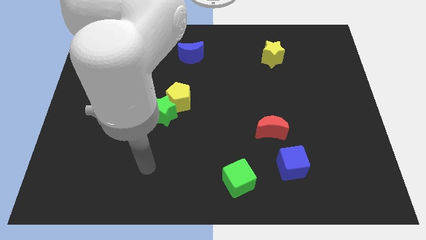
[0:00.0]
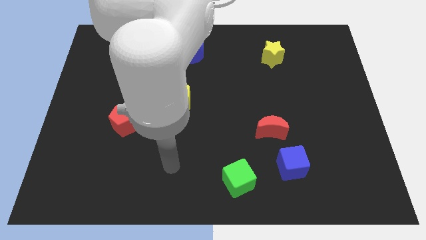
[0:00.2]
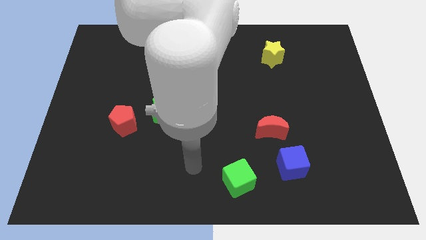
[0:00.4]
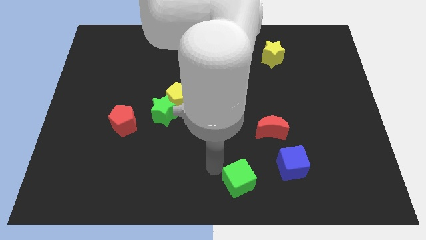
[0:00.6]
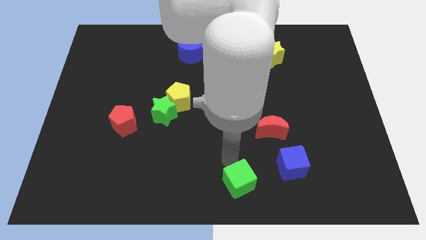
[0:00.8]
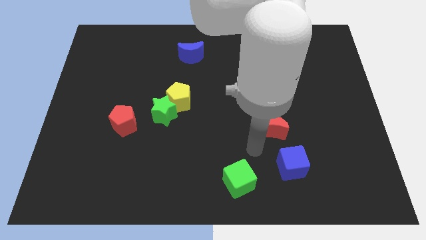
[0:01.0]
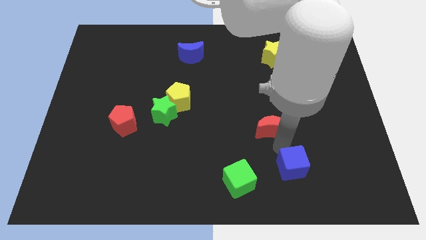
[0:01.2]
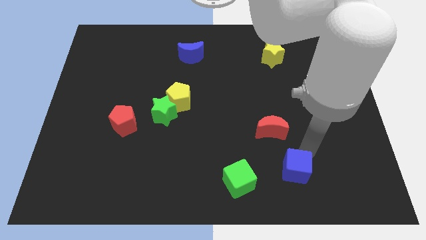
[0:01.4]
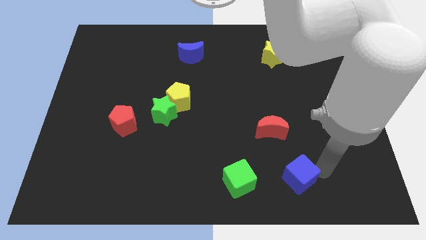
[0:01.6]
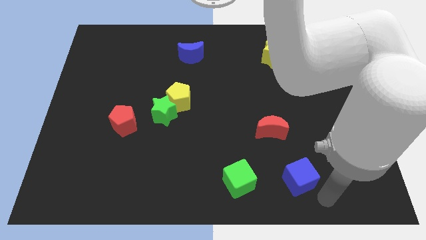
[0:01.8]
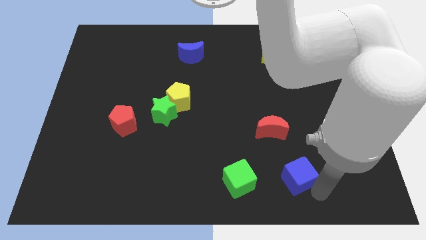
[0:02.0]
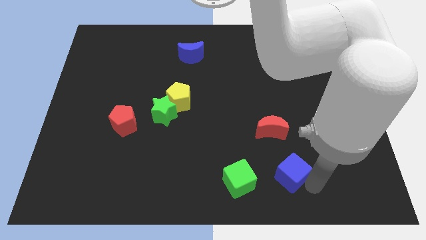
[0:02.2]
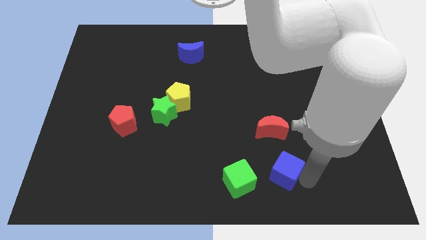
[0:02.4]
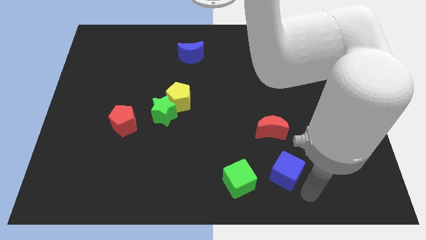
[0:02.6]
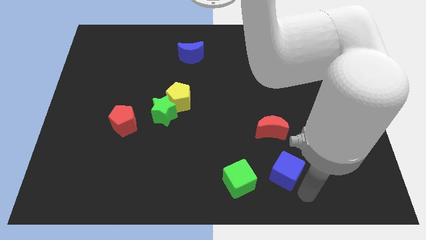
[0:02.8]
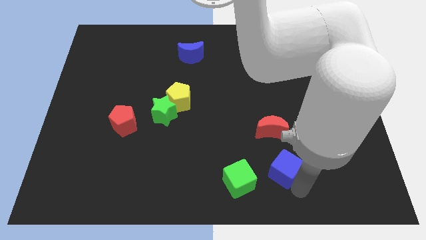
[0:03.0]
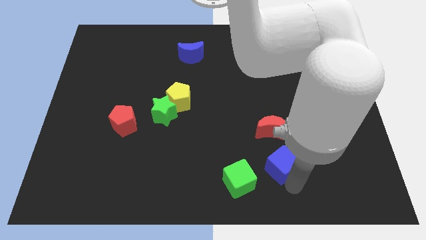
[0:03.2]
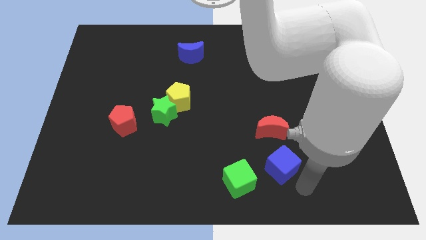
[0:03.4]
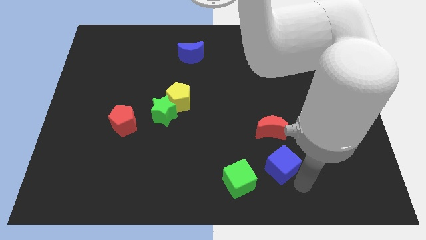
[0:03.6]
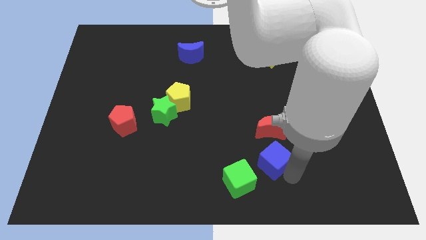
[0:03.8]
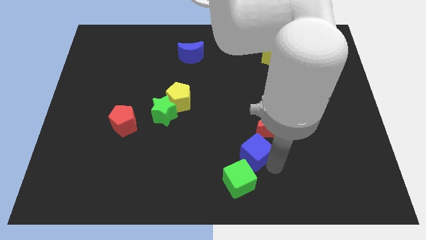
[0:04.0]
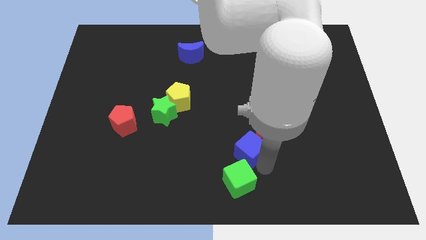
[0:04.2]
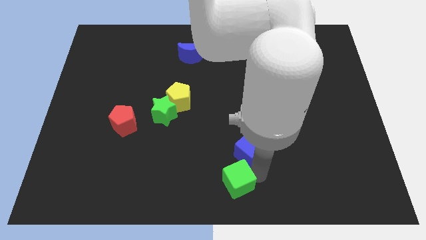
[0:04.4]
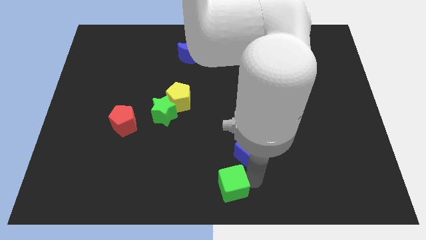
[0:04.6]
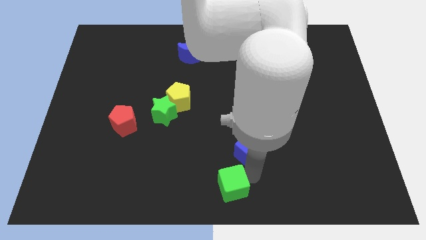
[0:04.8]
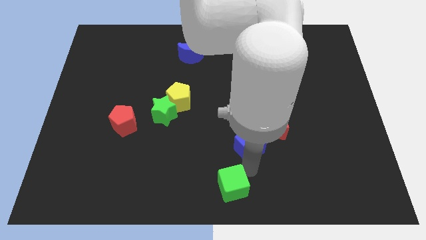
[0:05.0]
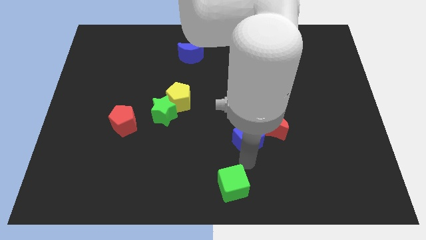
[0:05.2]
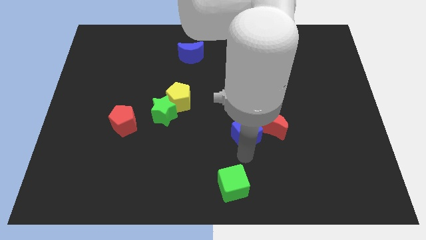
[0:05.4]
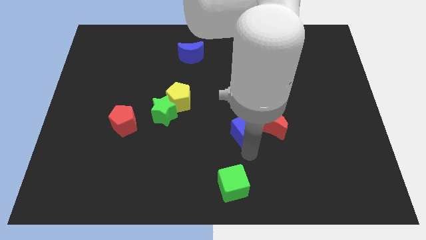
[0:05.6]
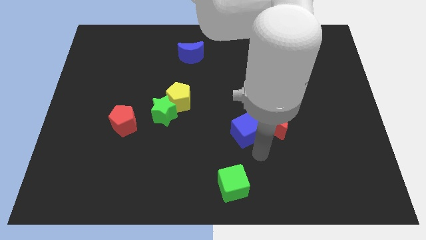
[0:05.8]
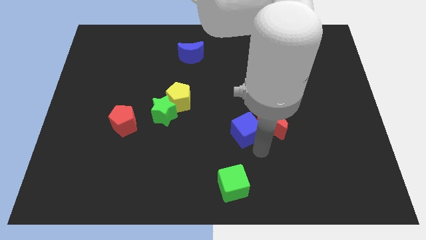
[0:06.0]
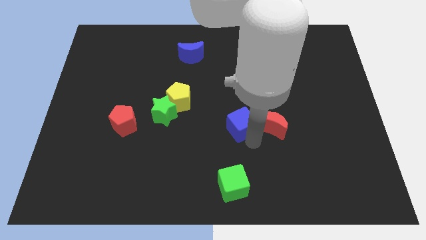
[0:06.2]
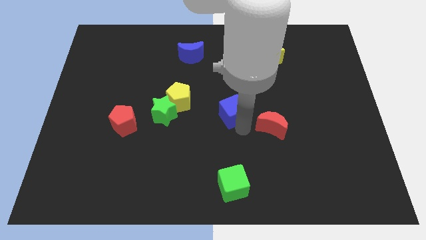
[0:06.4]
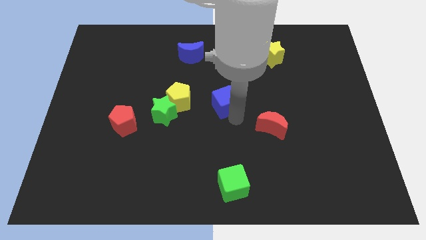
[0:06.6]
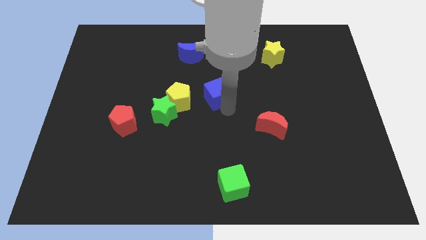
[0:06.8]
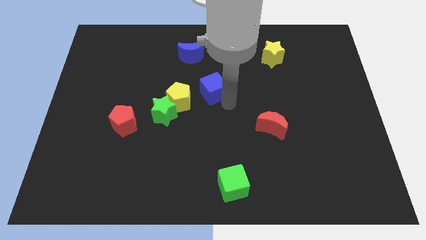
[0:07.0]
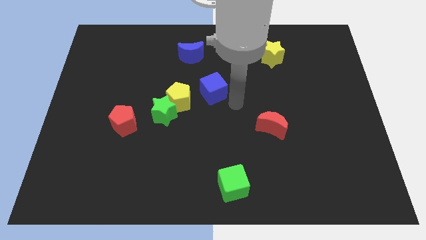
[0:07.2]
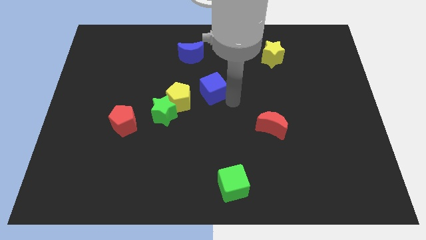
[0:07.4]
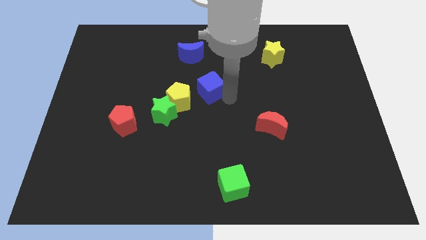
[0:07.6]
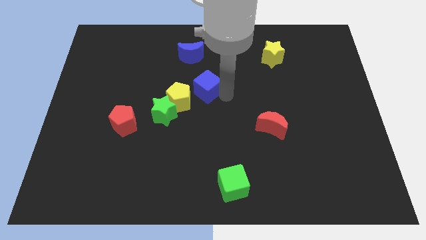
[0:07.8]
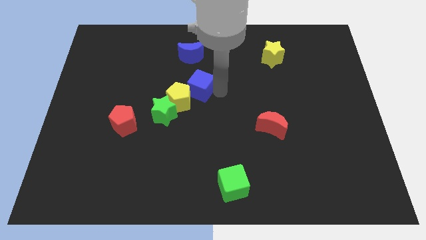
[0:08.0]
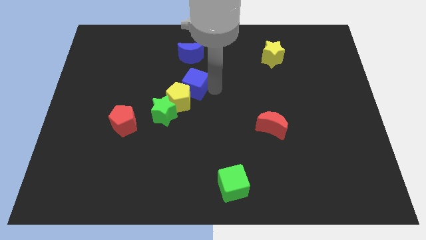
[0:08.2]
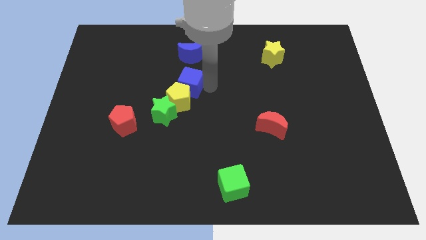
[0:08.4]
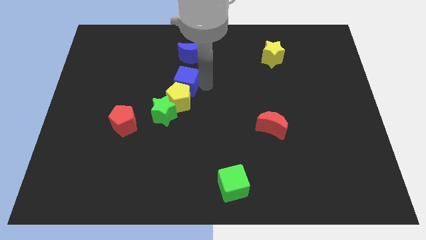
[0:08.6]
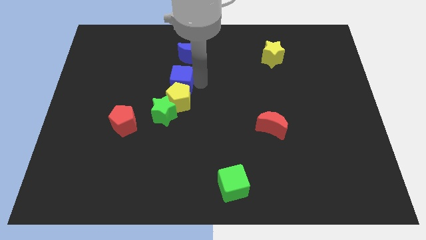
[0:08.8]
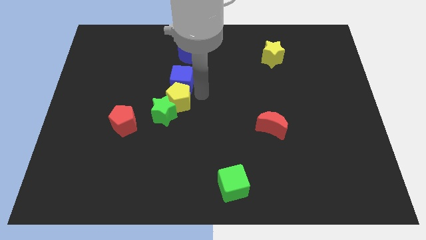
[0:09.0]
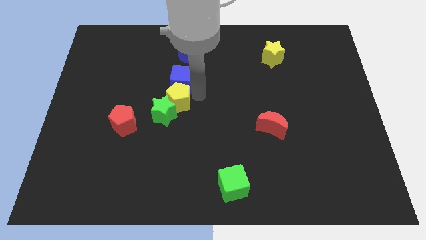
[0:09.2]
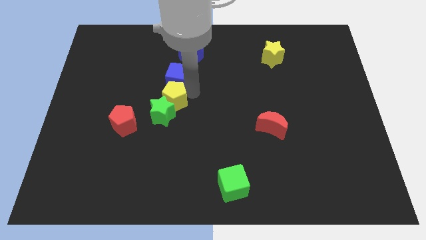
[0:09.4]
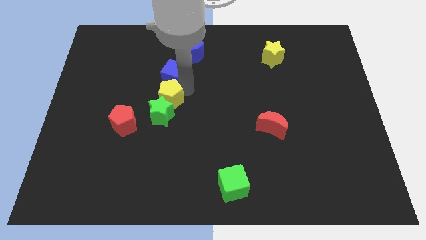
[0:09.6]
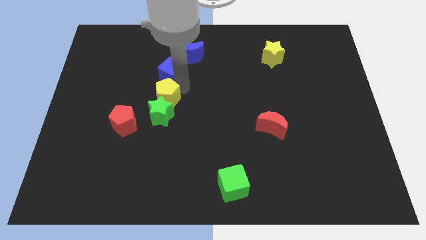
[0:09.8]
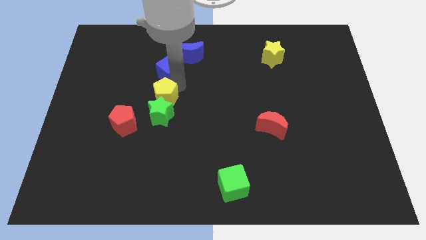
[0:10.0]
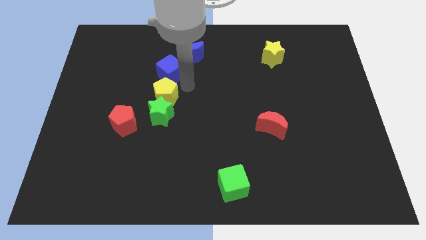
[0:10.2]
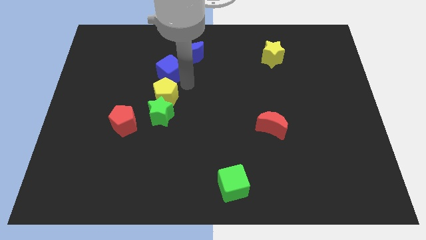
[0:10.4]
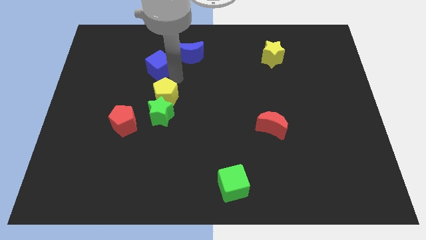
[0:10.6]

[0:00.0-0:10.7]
slide the blue cube to the left side of the blue moon

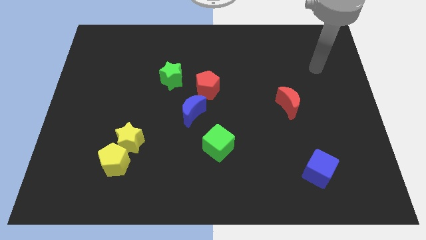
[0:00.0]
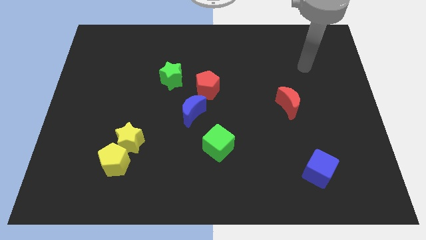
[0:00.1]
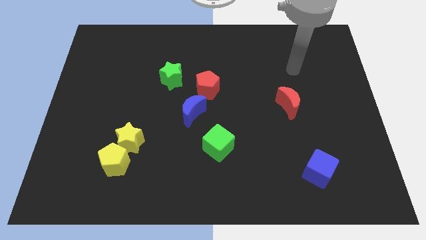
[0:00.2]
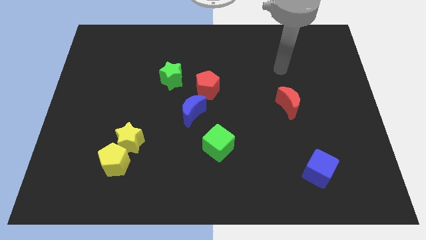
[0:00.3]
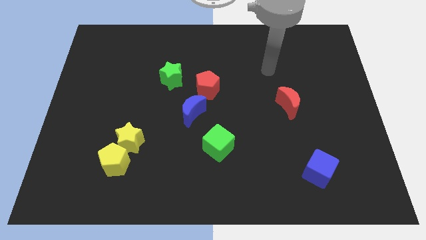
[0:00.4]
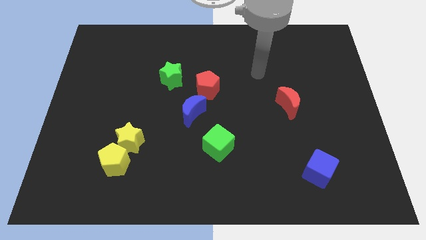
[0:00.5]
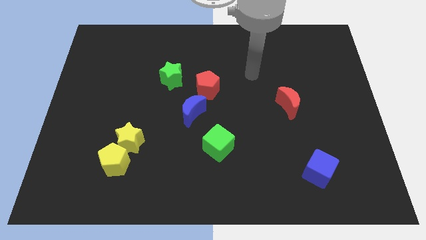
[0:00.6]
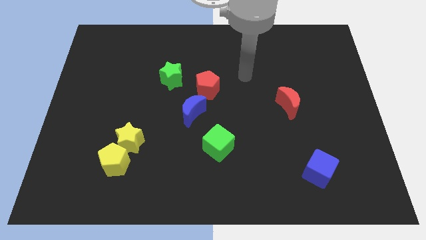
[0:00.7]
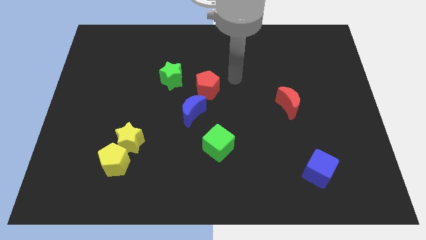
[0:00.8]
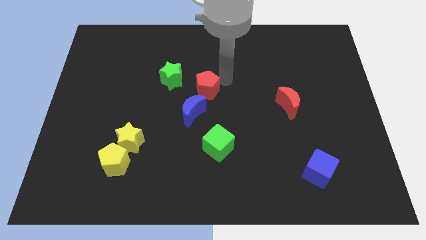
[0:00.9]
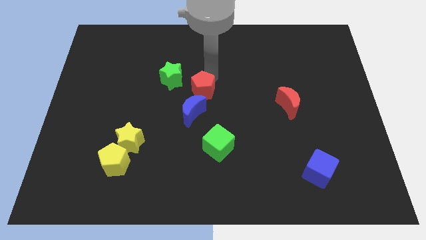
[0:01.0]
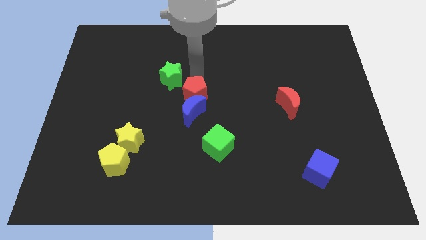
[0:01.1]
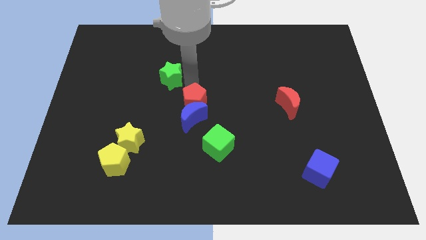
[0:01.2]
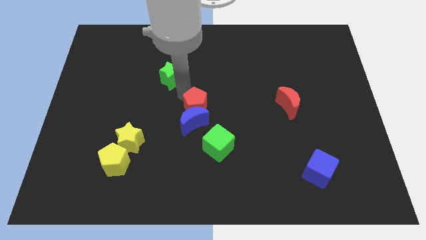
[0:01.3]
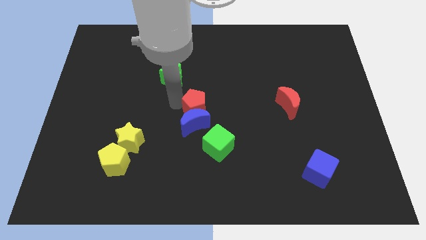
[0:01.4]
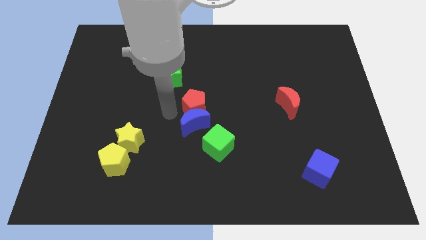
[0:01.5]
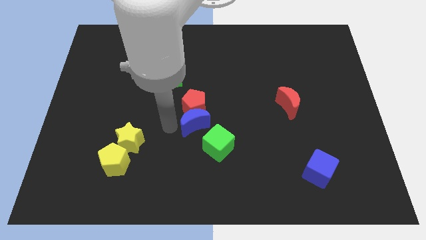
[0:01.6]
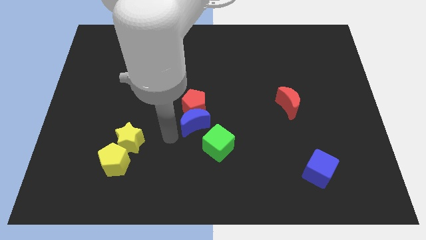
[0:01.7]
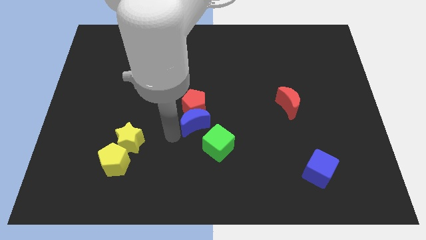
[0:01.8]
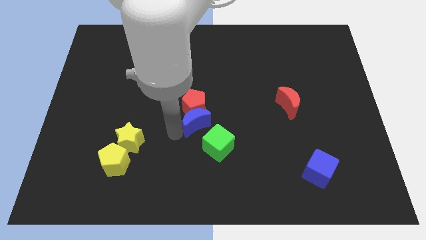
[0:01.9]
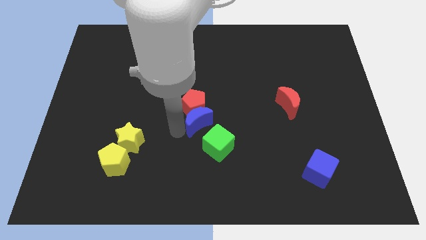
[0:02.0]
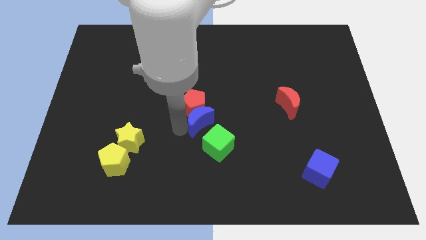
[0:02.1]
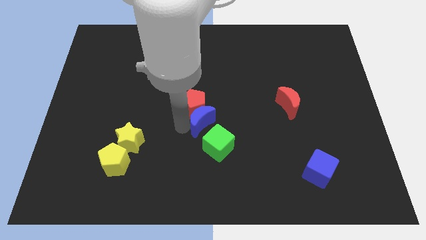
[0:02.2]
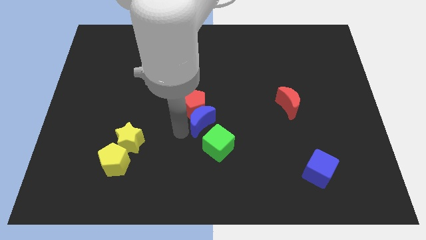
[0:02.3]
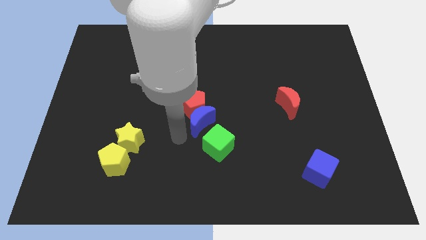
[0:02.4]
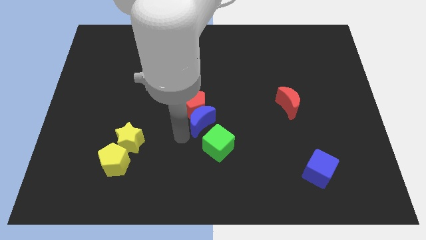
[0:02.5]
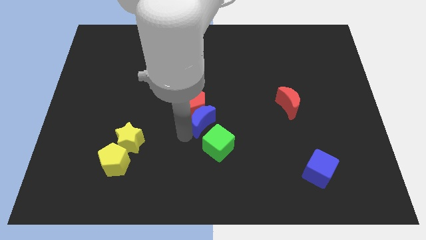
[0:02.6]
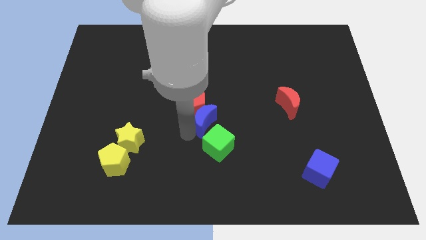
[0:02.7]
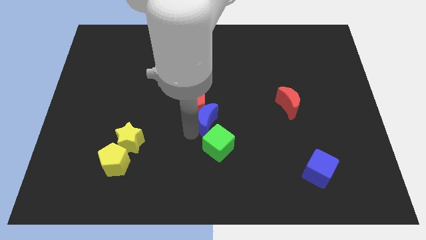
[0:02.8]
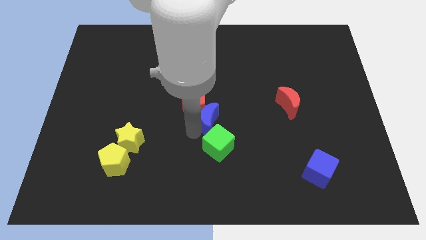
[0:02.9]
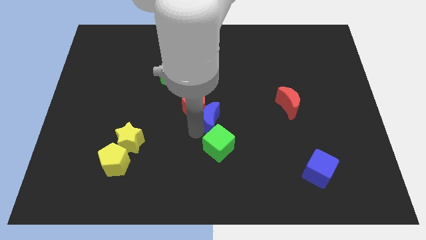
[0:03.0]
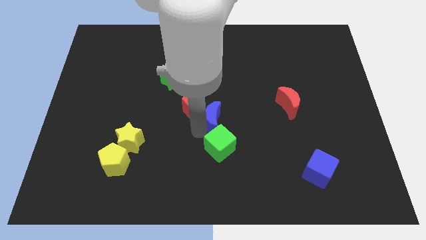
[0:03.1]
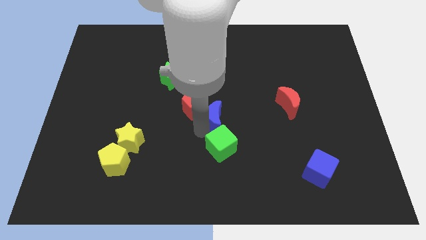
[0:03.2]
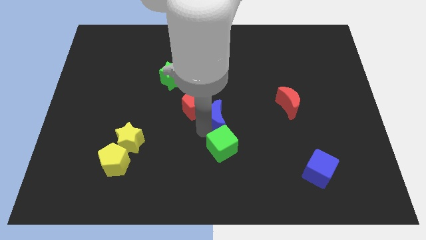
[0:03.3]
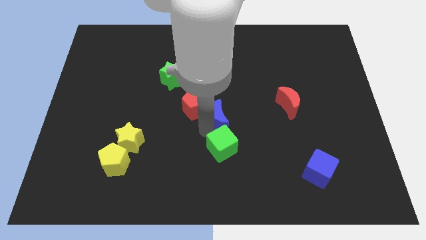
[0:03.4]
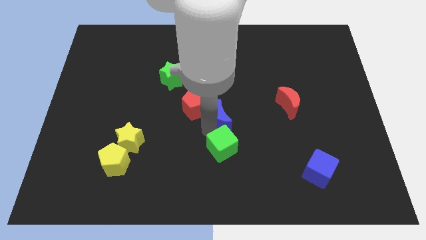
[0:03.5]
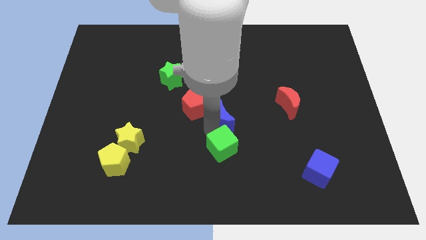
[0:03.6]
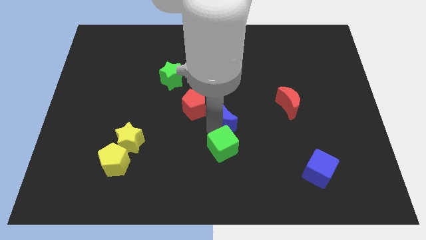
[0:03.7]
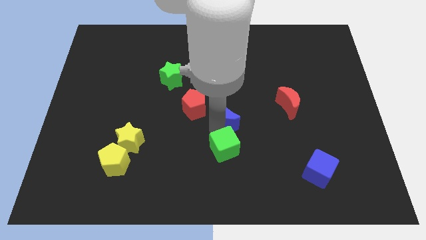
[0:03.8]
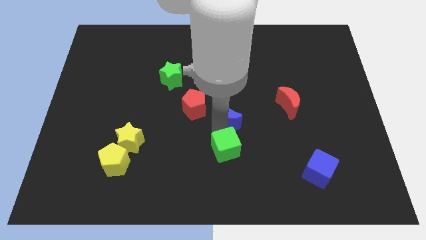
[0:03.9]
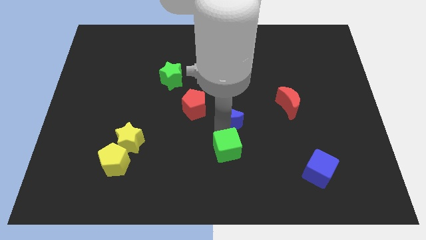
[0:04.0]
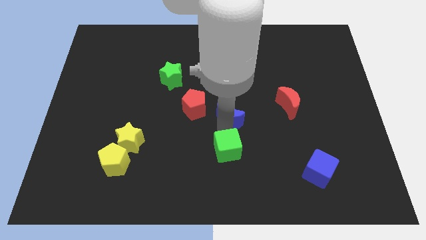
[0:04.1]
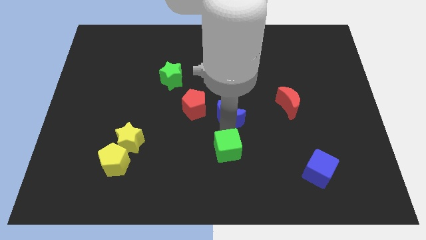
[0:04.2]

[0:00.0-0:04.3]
put the blue moon to the left of the red moon
